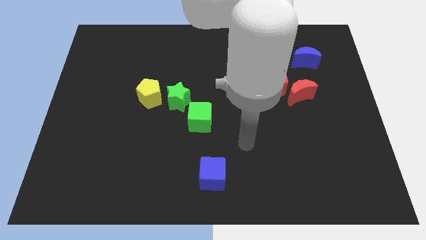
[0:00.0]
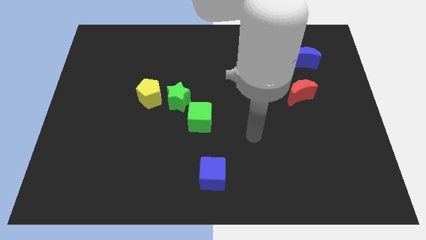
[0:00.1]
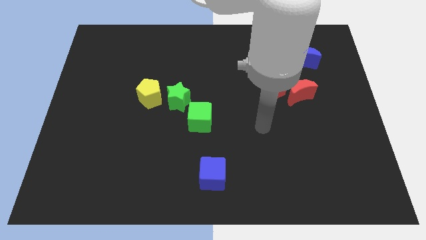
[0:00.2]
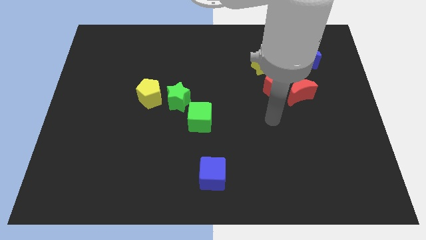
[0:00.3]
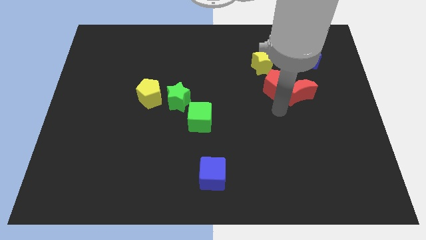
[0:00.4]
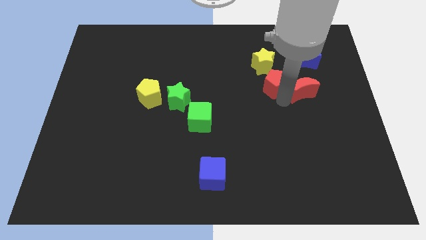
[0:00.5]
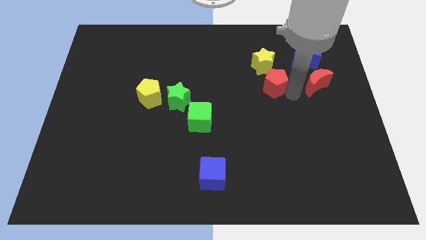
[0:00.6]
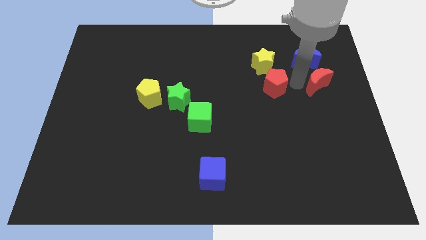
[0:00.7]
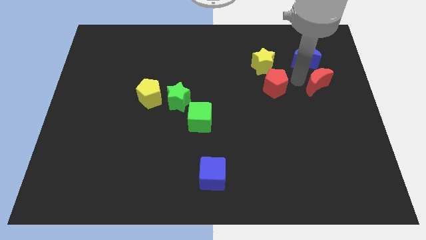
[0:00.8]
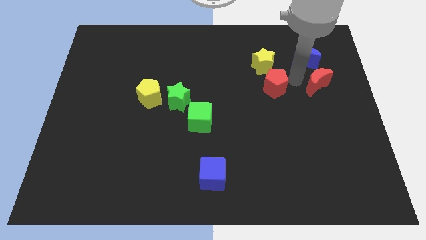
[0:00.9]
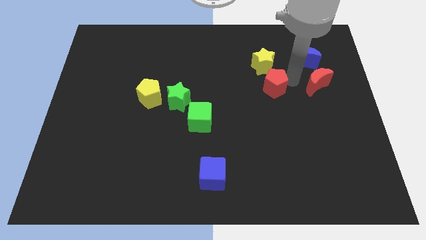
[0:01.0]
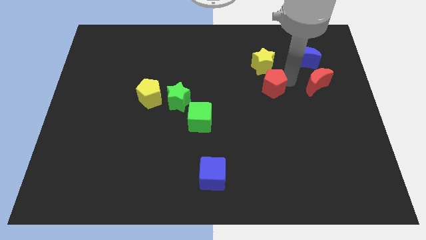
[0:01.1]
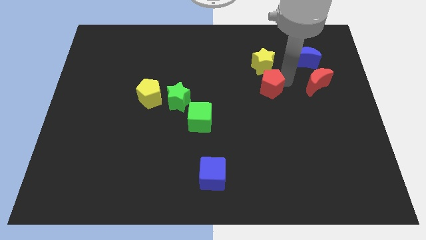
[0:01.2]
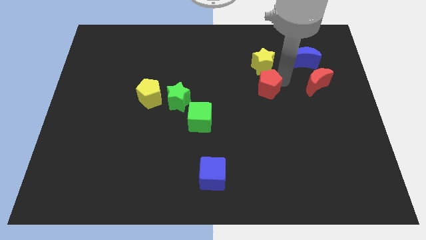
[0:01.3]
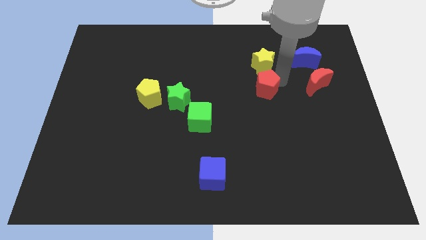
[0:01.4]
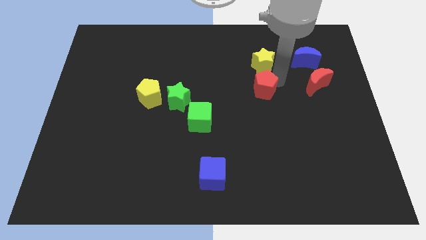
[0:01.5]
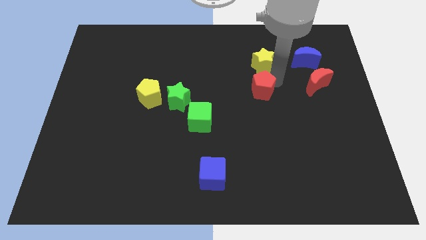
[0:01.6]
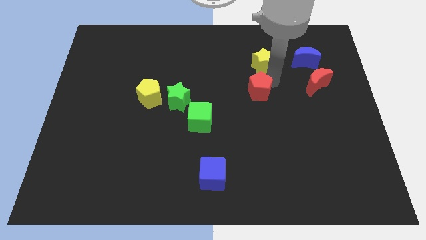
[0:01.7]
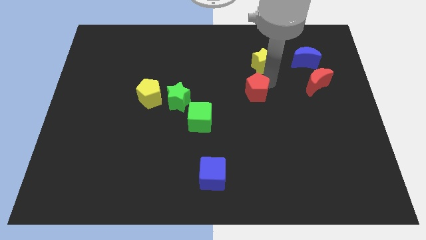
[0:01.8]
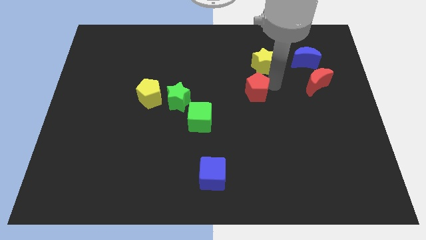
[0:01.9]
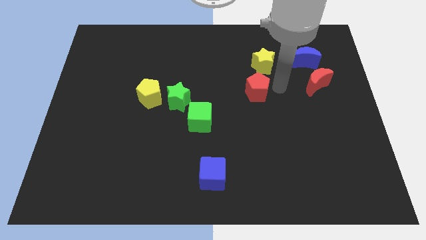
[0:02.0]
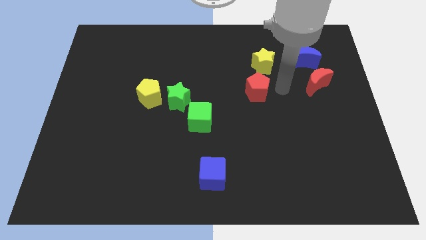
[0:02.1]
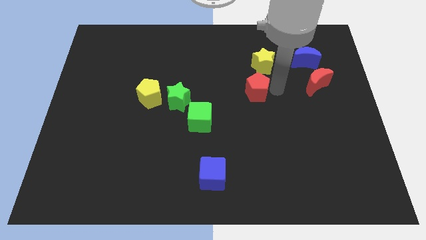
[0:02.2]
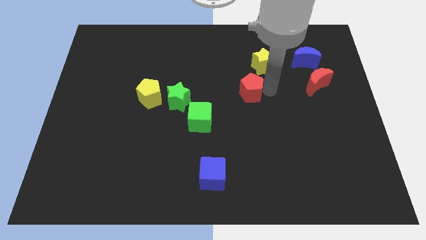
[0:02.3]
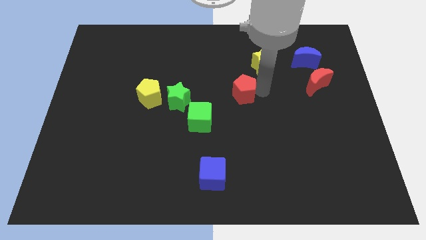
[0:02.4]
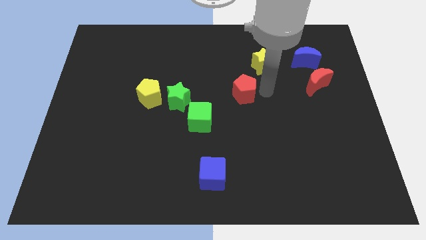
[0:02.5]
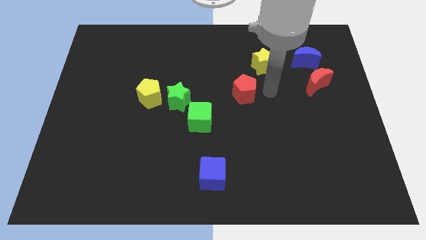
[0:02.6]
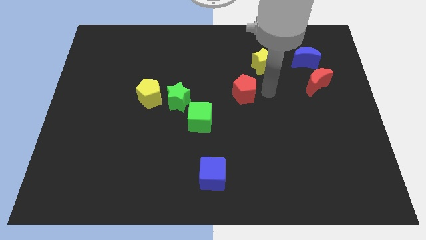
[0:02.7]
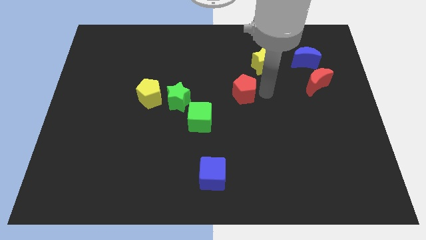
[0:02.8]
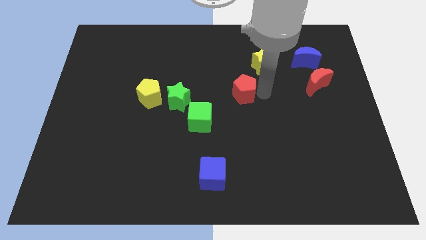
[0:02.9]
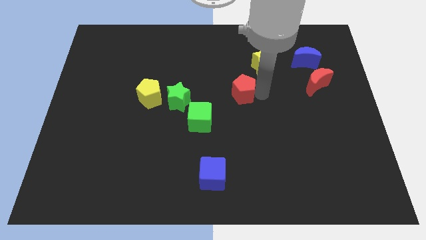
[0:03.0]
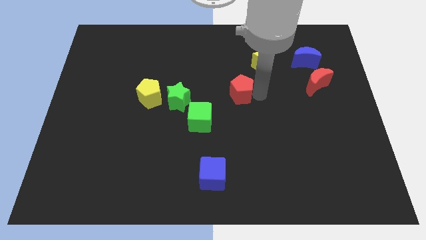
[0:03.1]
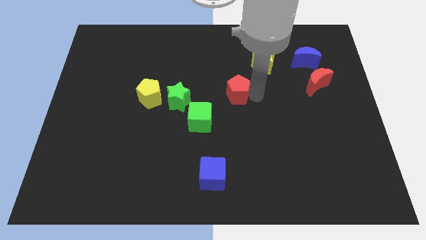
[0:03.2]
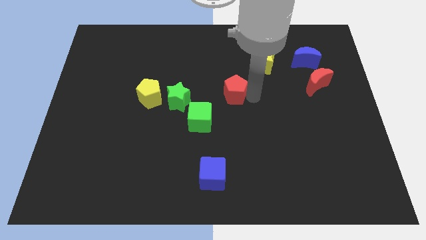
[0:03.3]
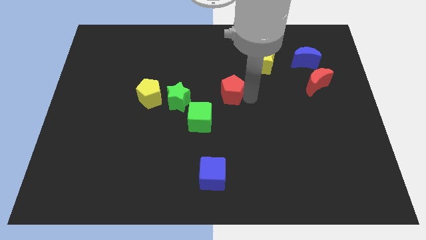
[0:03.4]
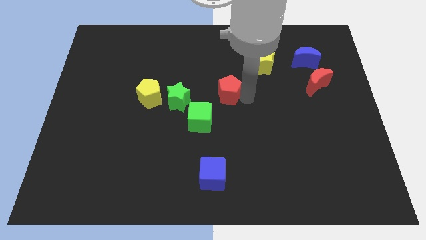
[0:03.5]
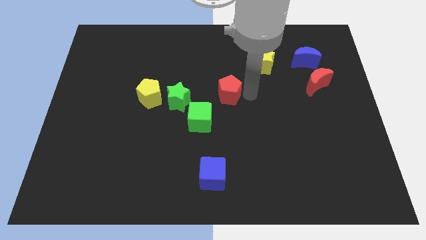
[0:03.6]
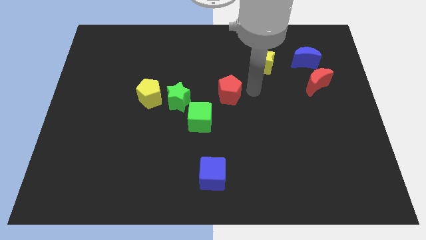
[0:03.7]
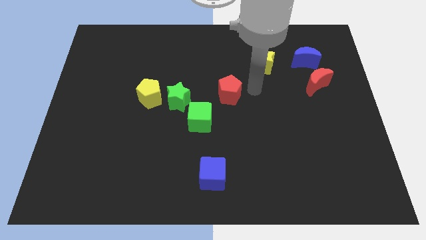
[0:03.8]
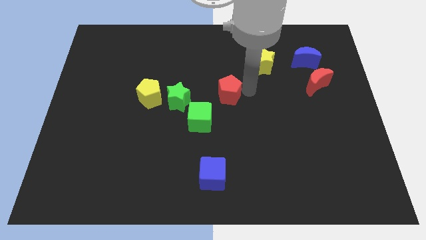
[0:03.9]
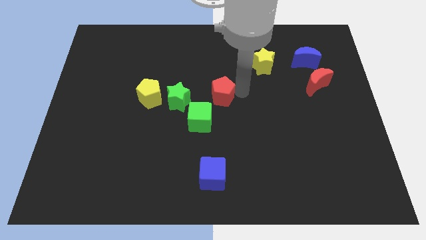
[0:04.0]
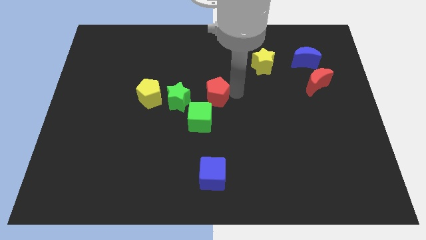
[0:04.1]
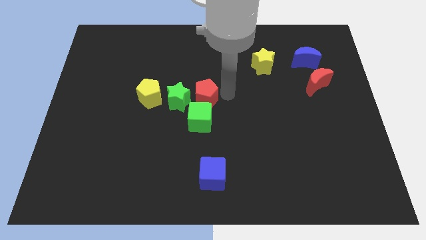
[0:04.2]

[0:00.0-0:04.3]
put the red pentagon close to the green star

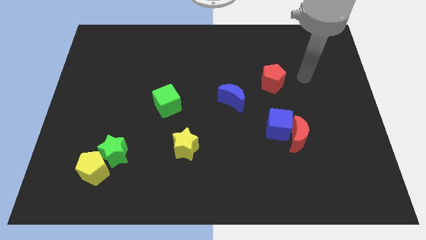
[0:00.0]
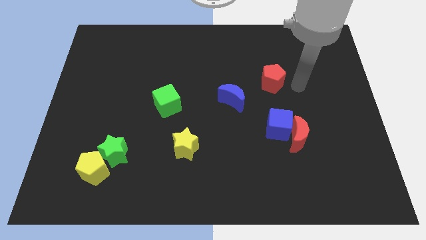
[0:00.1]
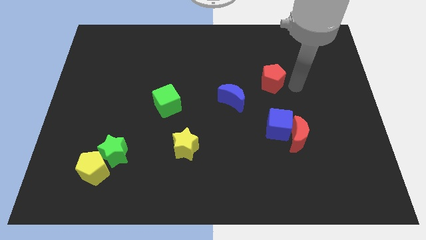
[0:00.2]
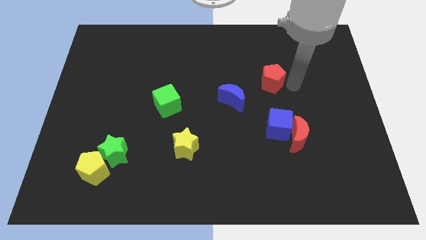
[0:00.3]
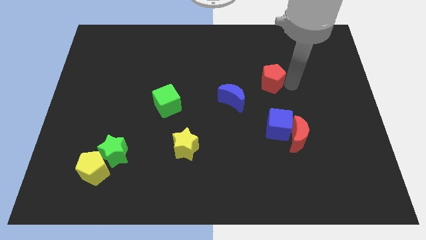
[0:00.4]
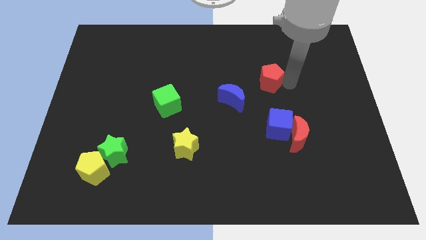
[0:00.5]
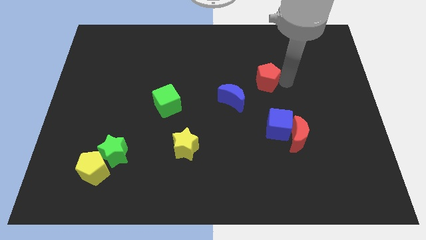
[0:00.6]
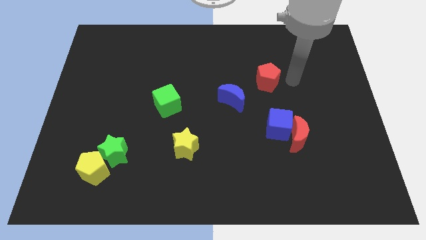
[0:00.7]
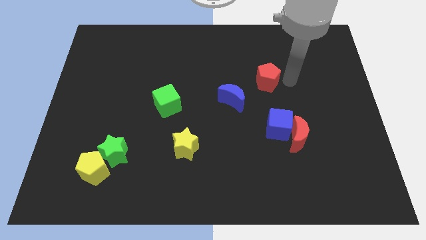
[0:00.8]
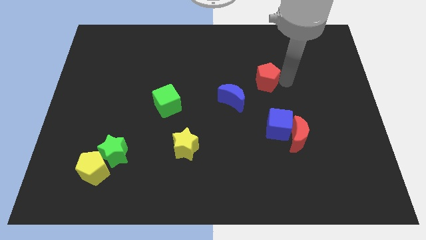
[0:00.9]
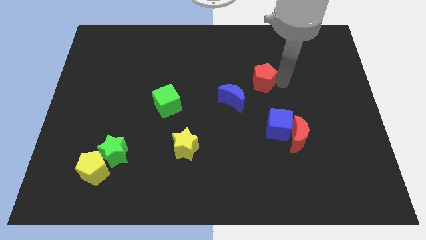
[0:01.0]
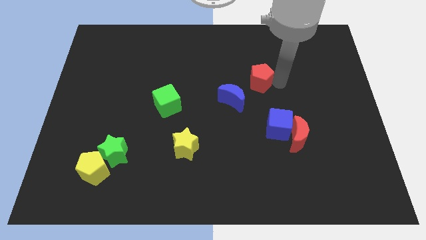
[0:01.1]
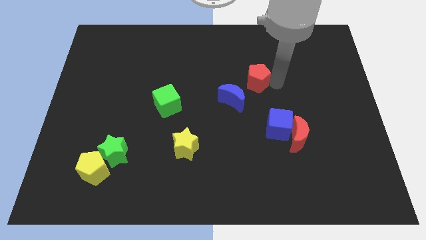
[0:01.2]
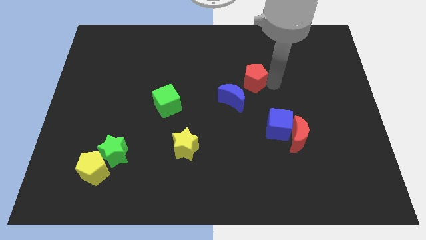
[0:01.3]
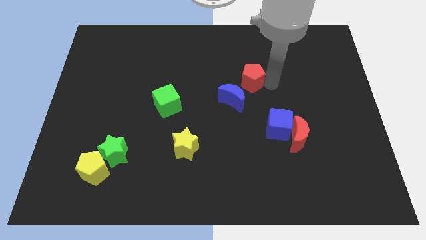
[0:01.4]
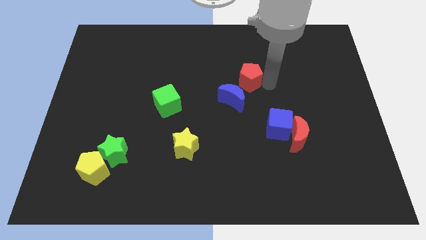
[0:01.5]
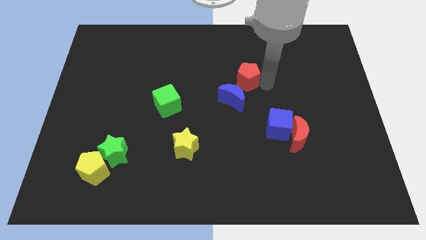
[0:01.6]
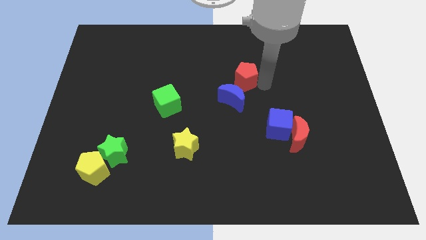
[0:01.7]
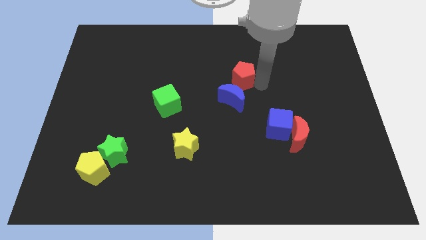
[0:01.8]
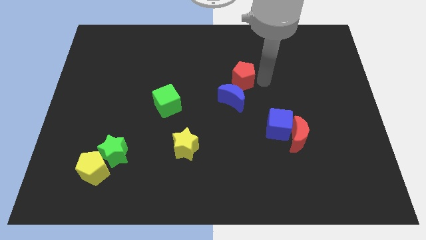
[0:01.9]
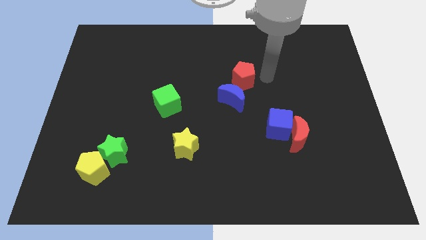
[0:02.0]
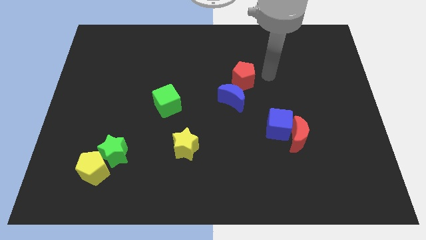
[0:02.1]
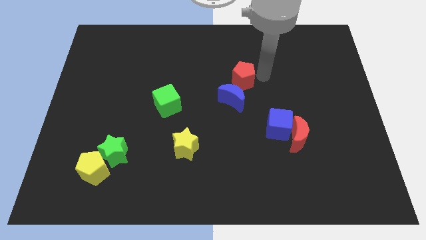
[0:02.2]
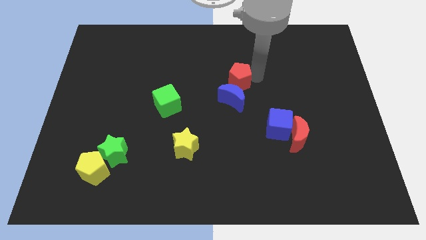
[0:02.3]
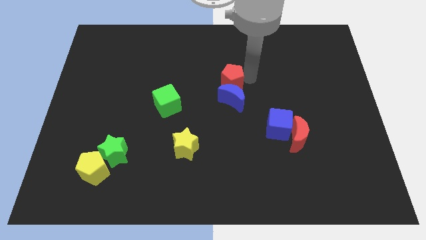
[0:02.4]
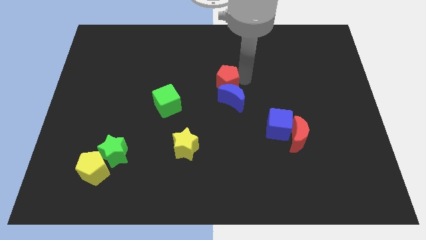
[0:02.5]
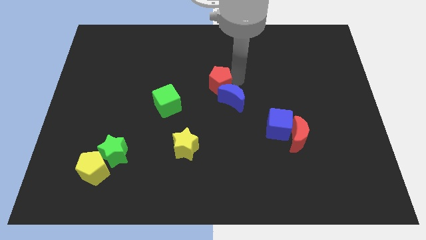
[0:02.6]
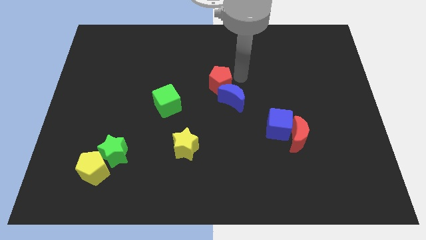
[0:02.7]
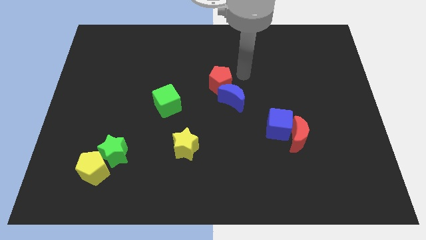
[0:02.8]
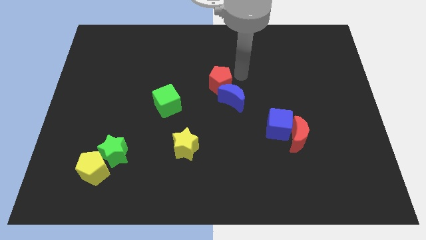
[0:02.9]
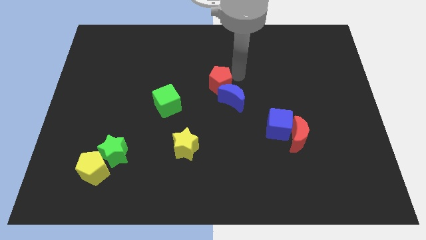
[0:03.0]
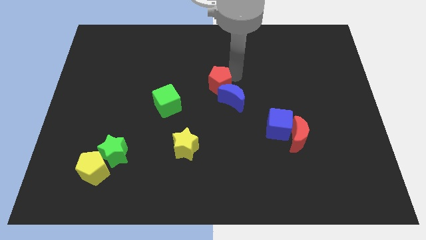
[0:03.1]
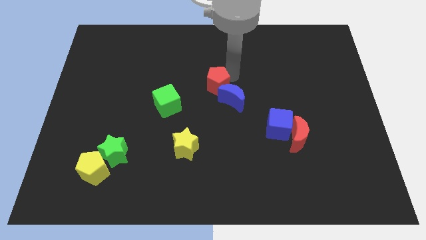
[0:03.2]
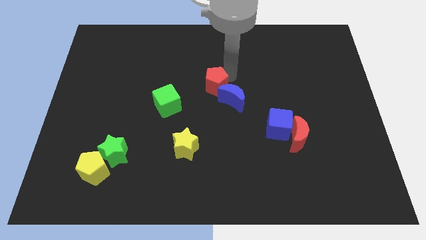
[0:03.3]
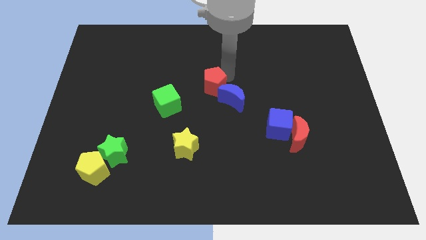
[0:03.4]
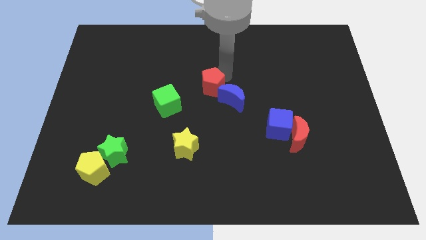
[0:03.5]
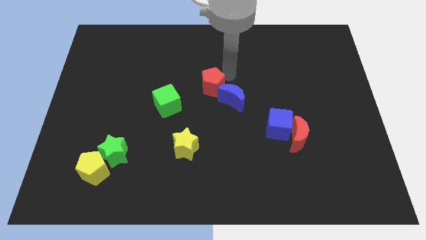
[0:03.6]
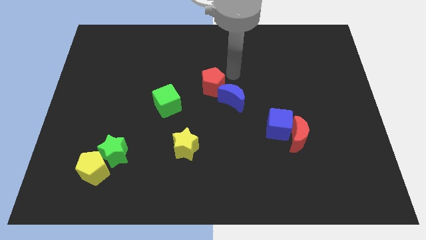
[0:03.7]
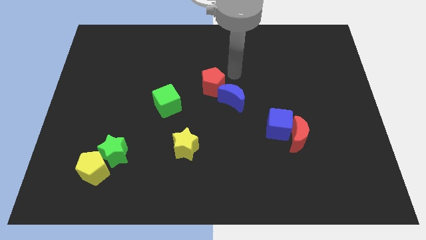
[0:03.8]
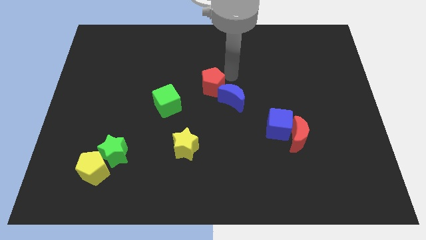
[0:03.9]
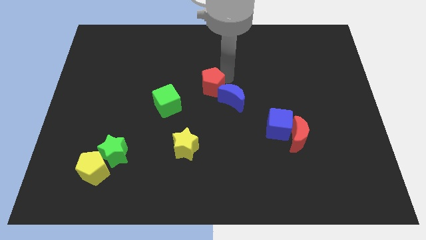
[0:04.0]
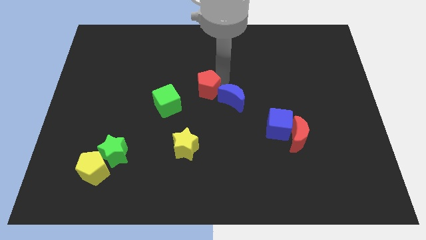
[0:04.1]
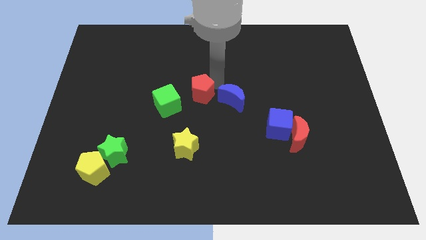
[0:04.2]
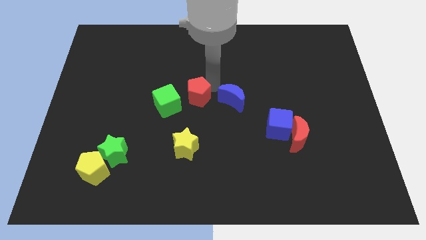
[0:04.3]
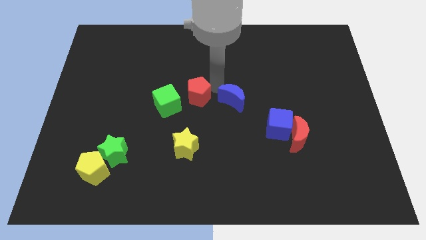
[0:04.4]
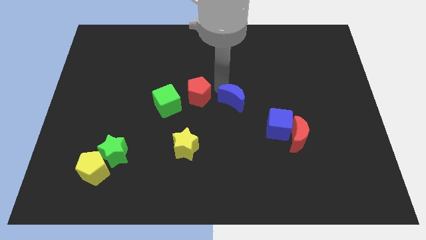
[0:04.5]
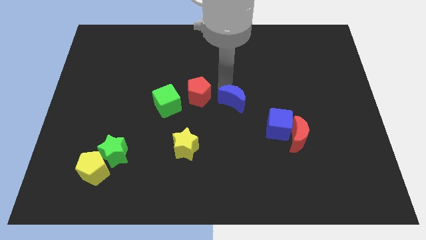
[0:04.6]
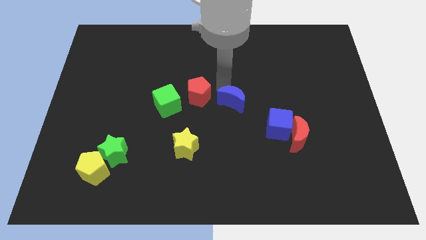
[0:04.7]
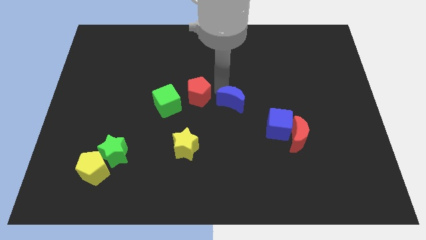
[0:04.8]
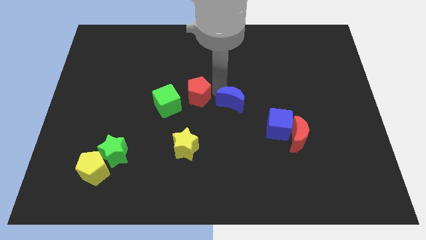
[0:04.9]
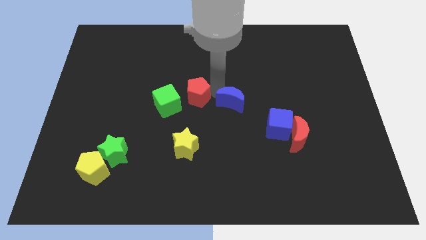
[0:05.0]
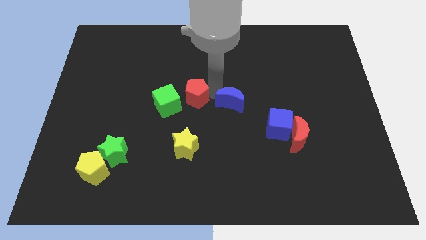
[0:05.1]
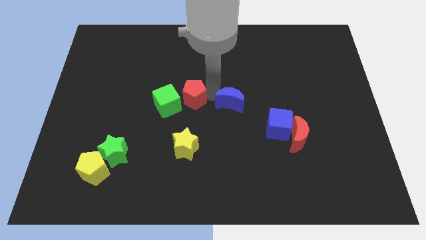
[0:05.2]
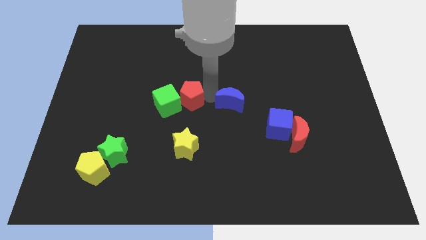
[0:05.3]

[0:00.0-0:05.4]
put the red pentagon close to the green cube
